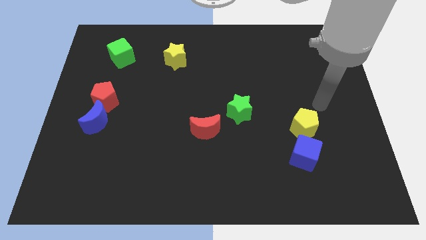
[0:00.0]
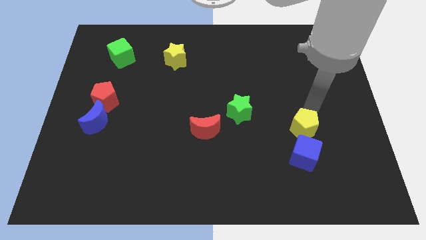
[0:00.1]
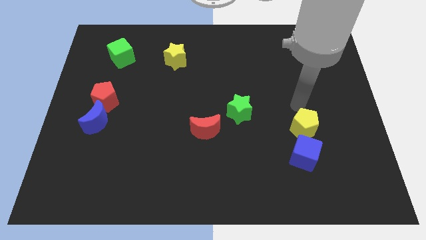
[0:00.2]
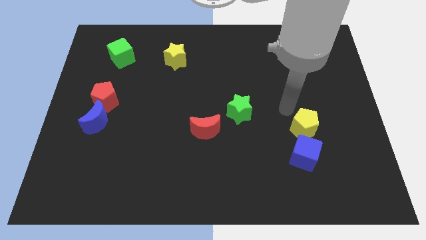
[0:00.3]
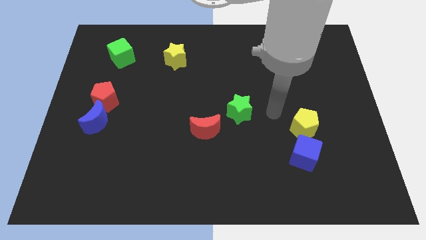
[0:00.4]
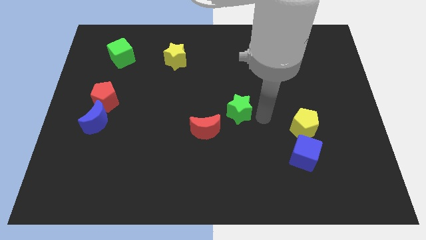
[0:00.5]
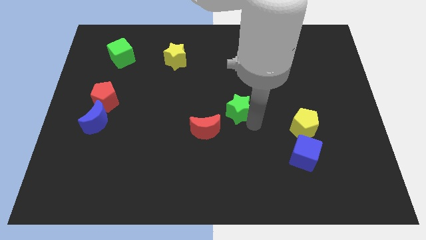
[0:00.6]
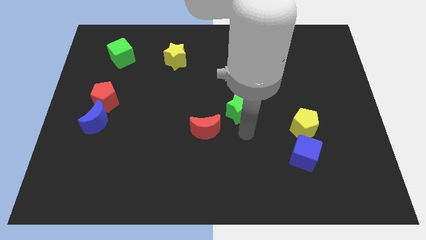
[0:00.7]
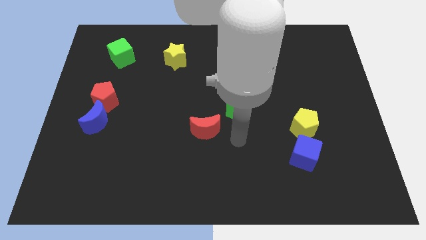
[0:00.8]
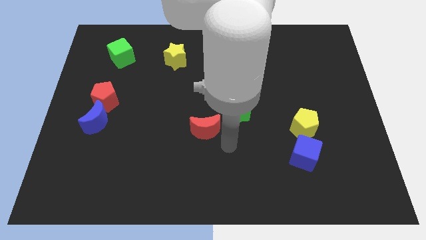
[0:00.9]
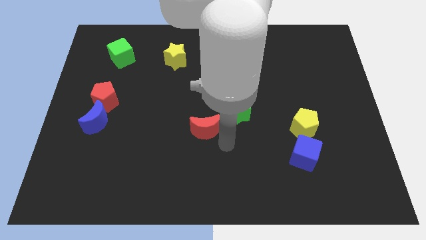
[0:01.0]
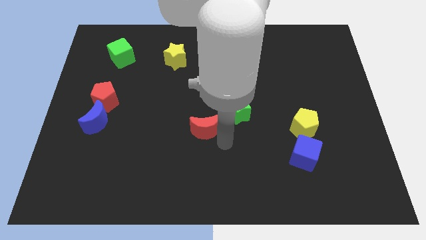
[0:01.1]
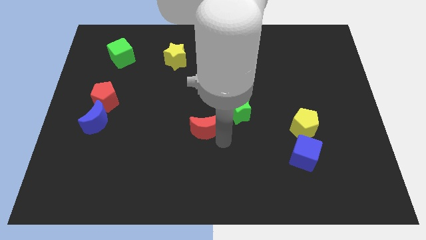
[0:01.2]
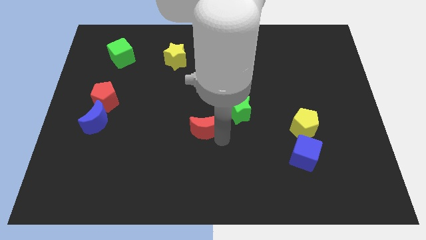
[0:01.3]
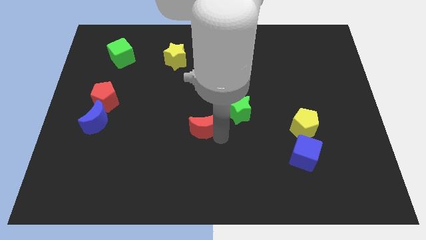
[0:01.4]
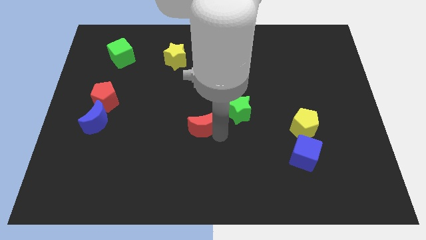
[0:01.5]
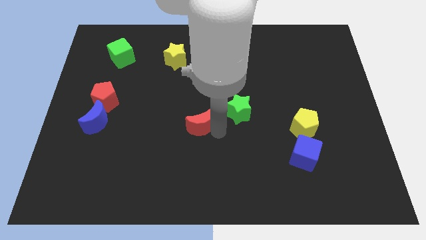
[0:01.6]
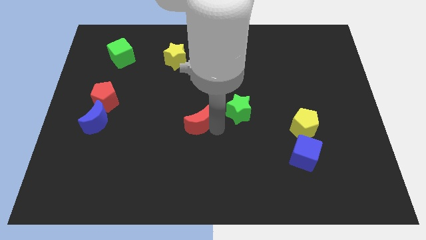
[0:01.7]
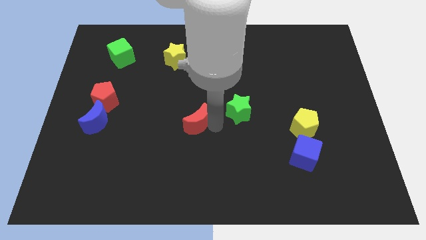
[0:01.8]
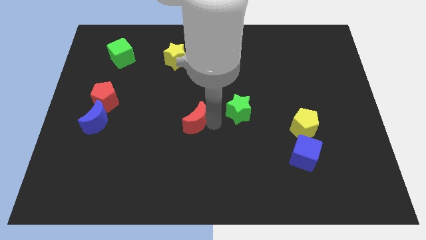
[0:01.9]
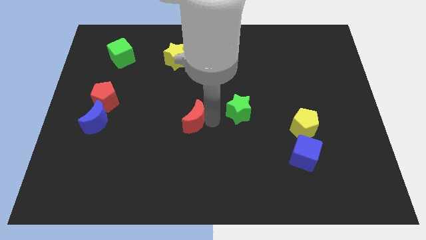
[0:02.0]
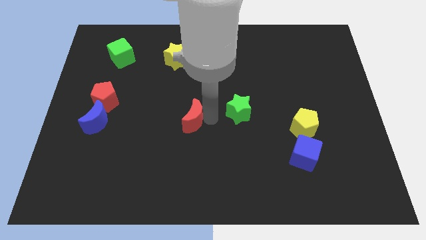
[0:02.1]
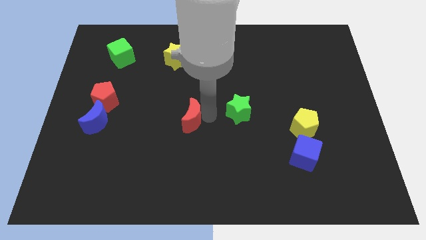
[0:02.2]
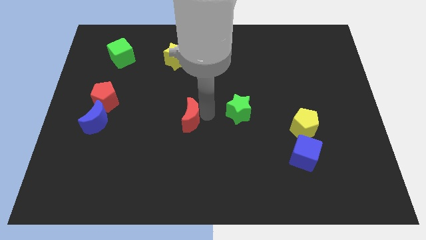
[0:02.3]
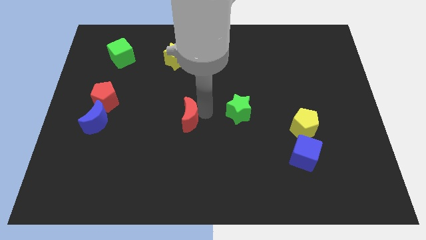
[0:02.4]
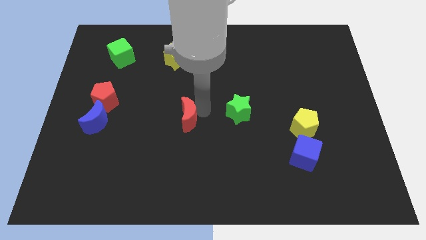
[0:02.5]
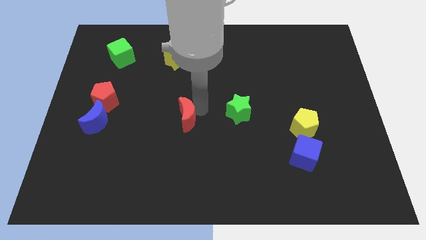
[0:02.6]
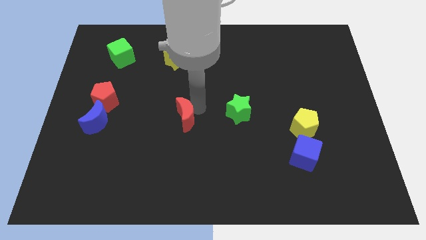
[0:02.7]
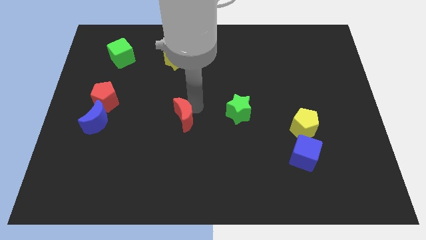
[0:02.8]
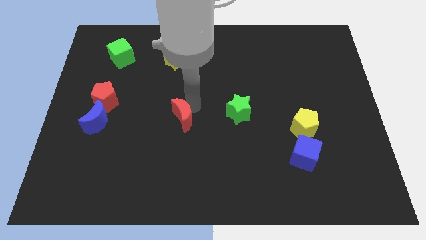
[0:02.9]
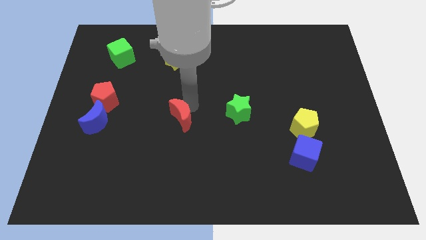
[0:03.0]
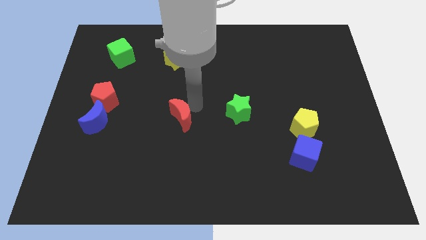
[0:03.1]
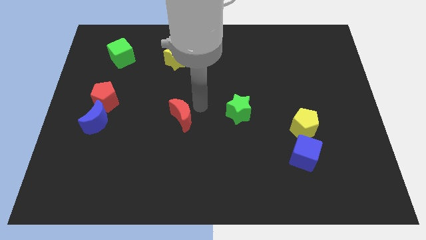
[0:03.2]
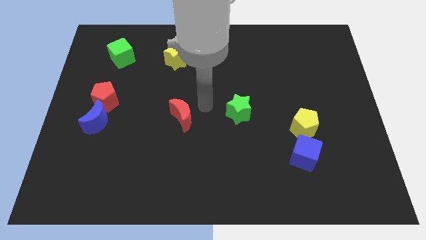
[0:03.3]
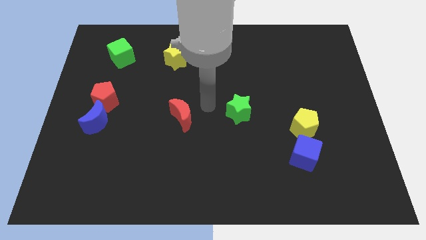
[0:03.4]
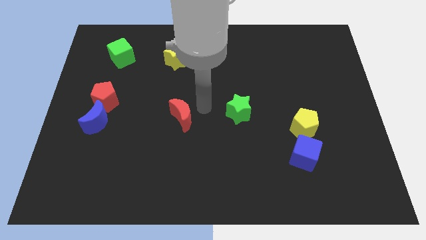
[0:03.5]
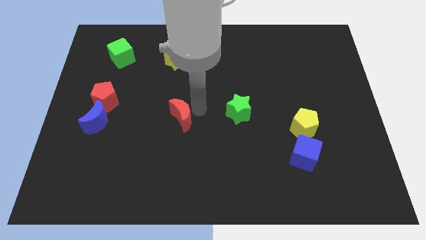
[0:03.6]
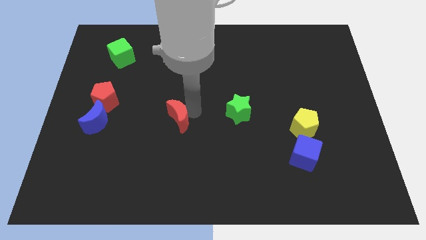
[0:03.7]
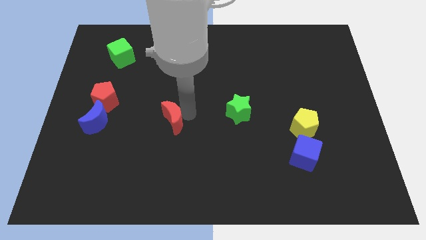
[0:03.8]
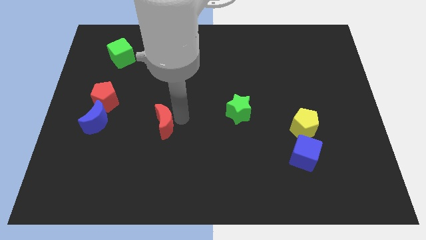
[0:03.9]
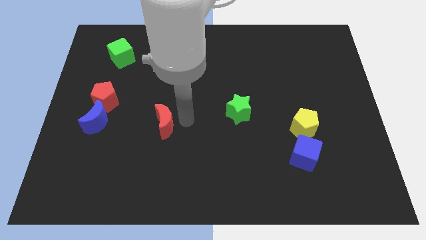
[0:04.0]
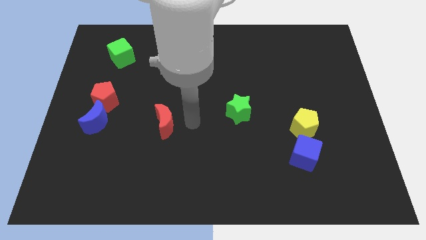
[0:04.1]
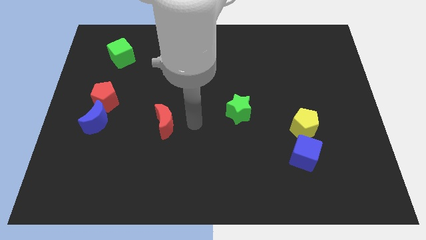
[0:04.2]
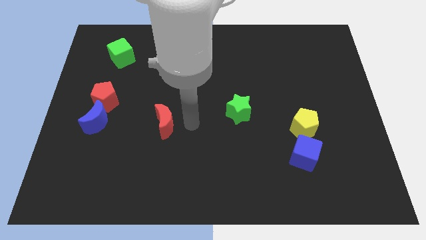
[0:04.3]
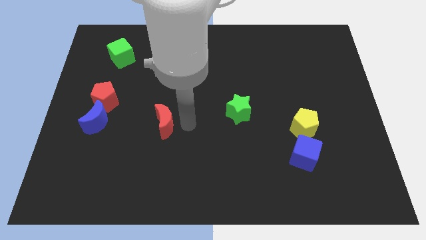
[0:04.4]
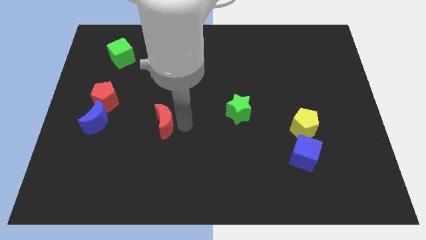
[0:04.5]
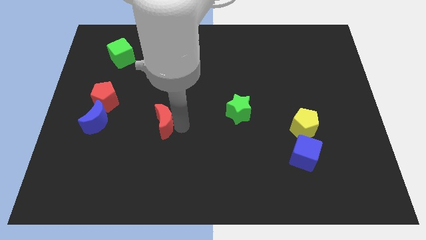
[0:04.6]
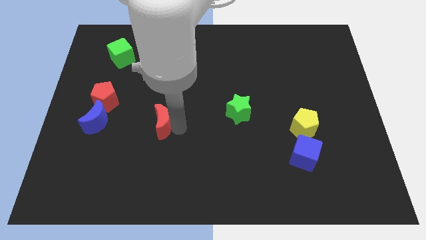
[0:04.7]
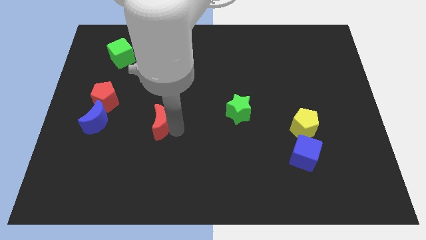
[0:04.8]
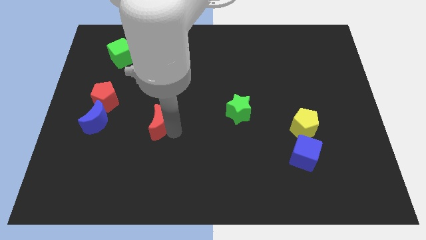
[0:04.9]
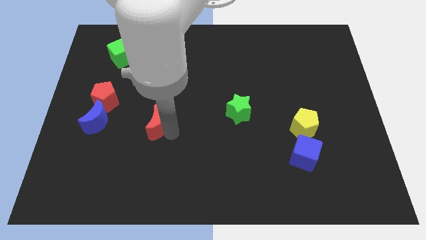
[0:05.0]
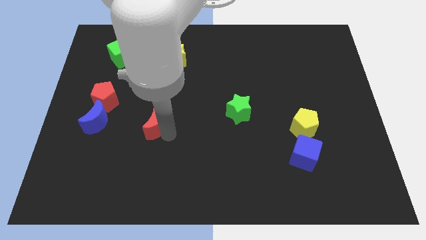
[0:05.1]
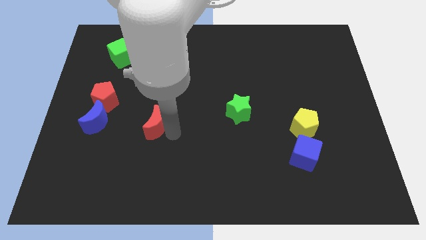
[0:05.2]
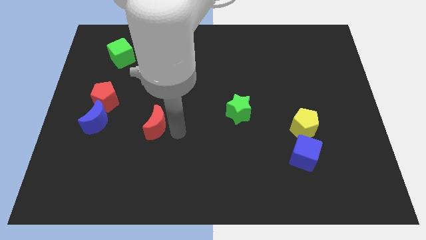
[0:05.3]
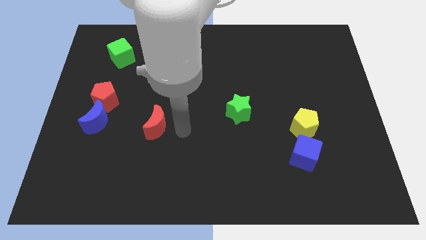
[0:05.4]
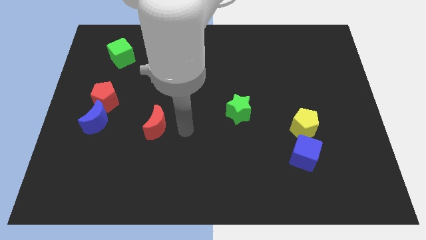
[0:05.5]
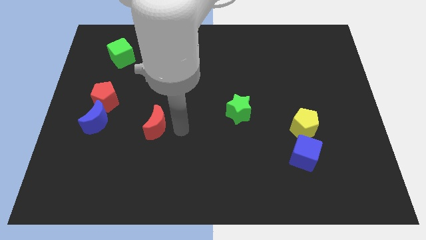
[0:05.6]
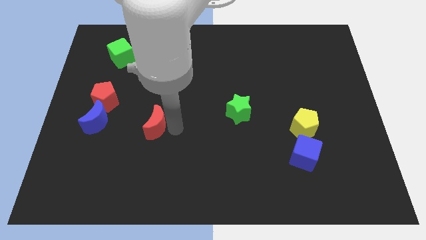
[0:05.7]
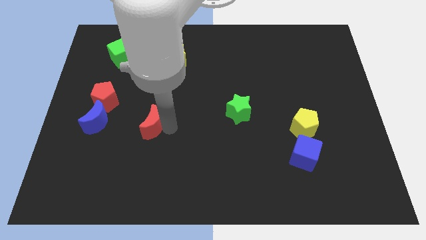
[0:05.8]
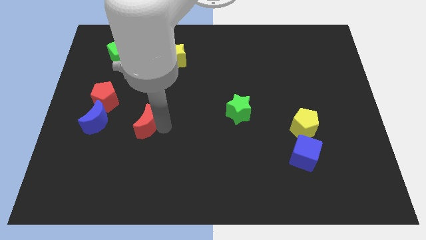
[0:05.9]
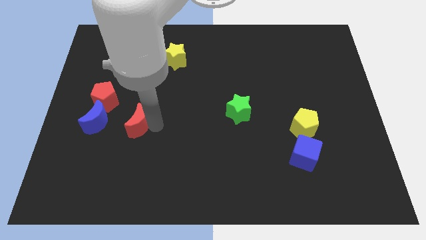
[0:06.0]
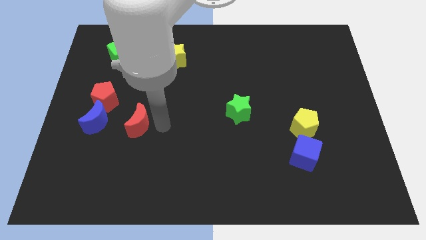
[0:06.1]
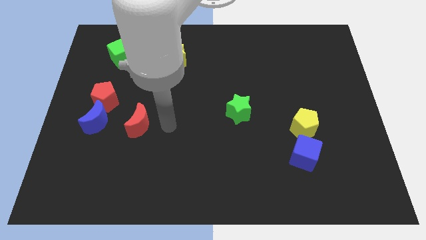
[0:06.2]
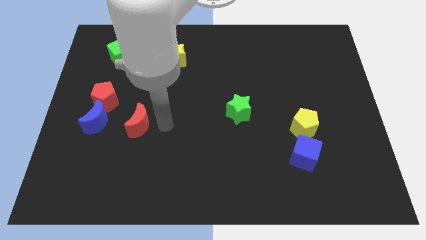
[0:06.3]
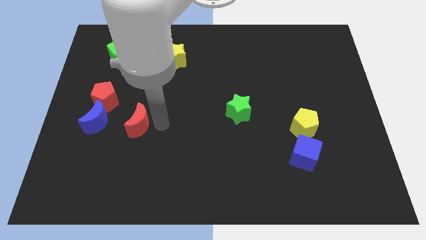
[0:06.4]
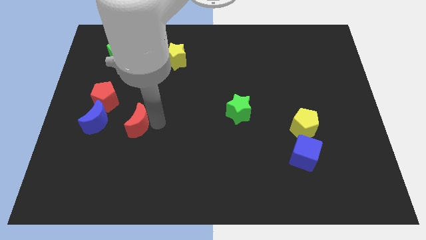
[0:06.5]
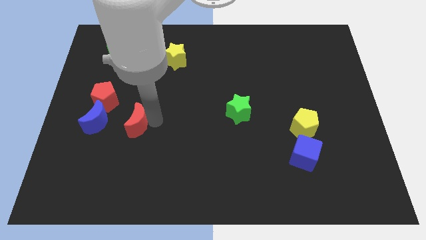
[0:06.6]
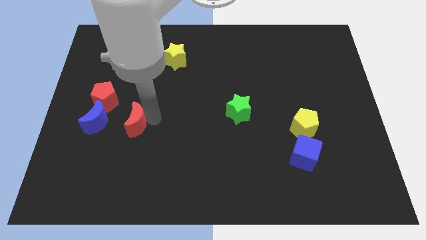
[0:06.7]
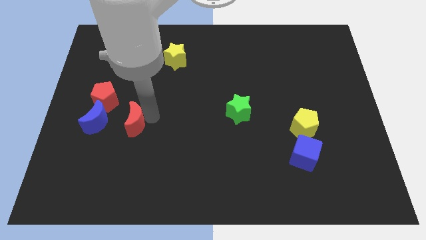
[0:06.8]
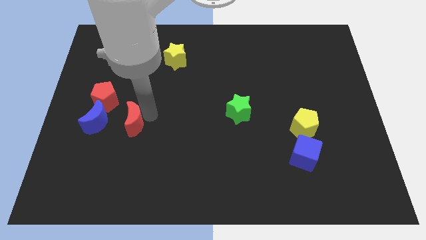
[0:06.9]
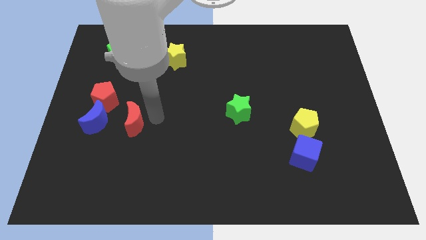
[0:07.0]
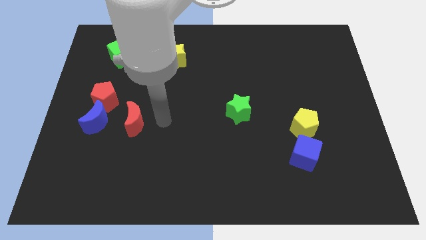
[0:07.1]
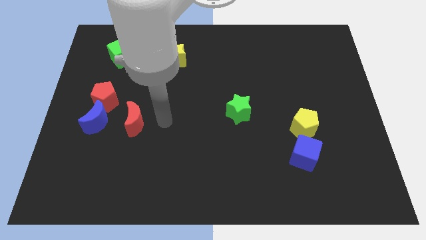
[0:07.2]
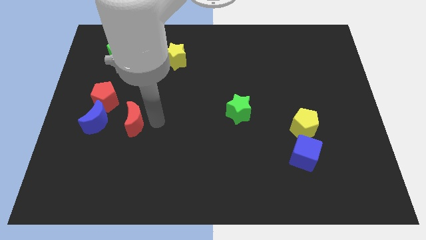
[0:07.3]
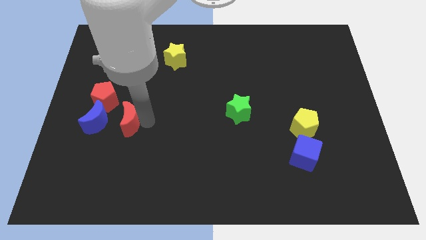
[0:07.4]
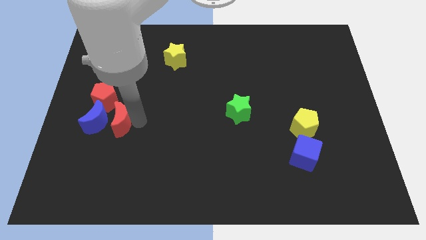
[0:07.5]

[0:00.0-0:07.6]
push the red moon towards the blue moon

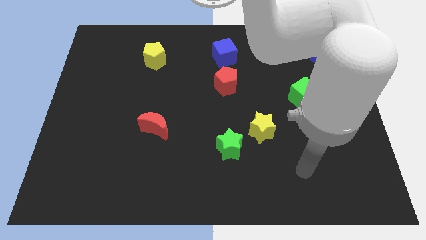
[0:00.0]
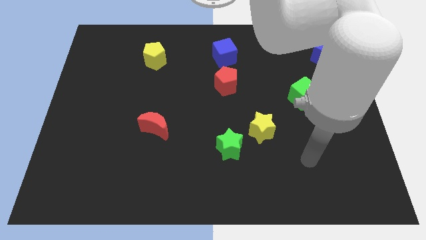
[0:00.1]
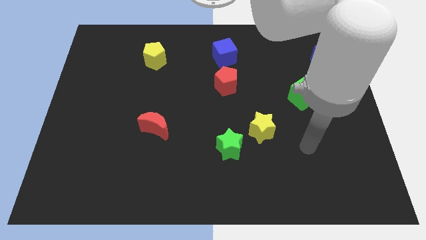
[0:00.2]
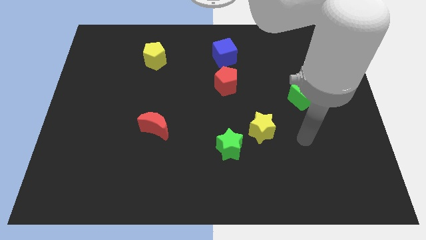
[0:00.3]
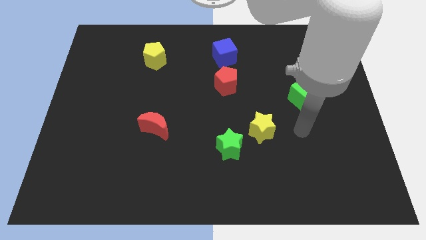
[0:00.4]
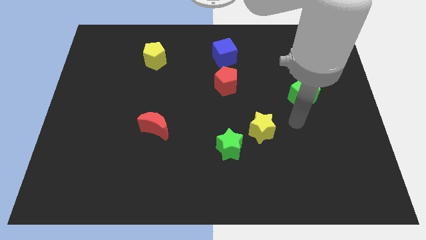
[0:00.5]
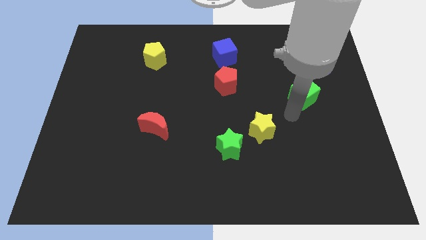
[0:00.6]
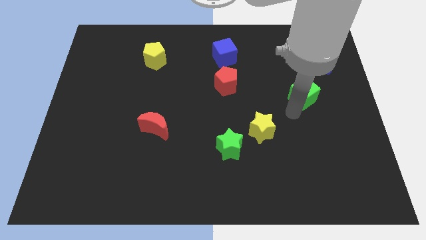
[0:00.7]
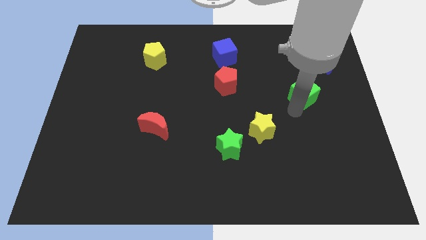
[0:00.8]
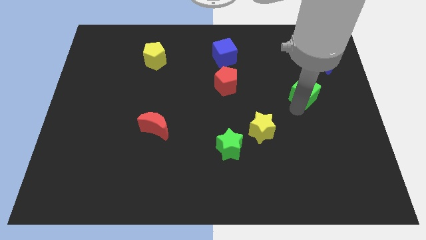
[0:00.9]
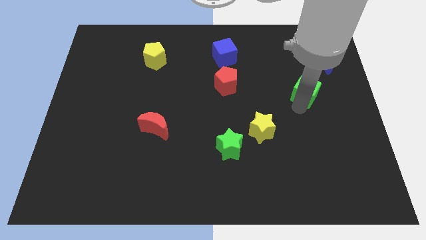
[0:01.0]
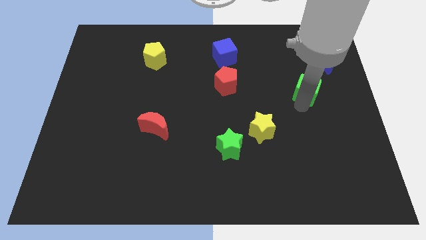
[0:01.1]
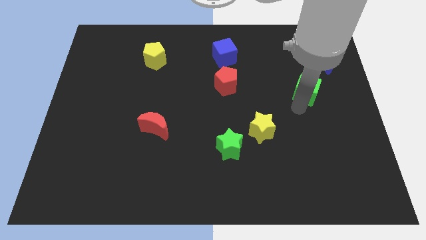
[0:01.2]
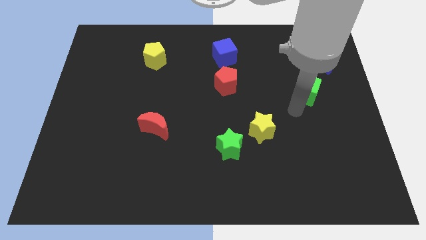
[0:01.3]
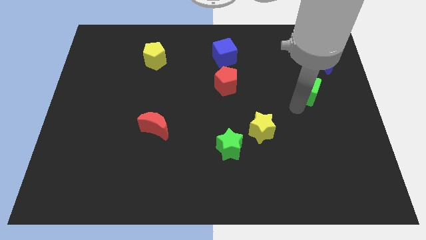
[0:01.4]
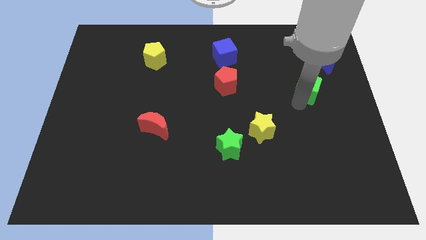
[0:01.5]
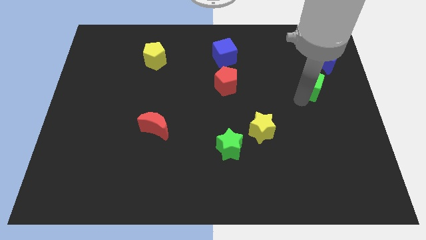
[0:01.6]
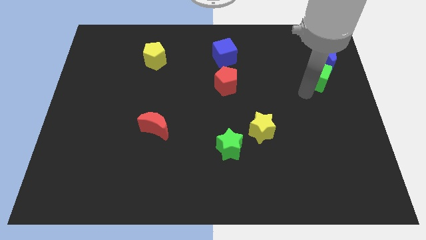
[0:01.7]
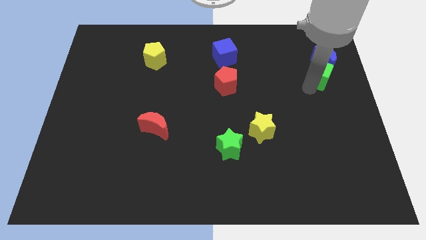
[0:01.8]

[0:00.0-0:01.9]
move the green cube close to the blue moon
